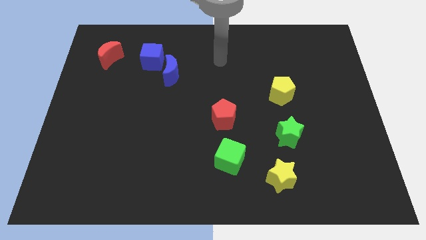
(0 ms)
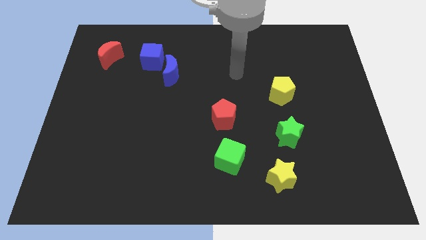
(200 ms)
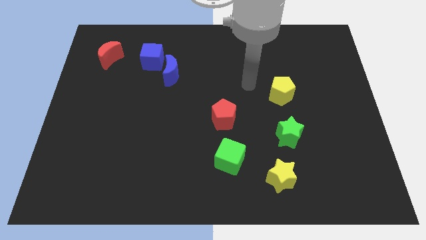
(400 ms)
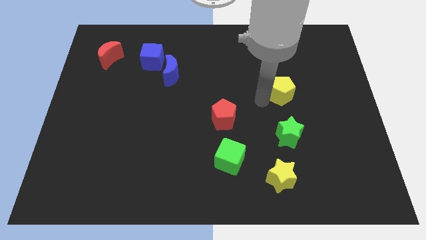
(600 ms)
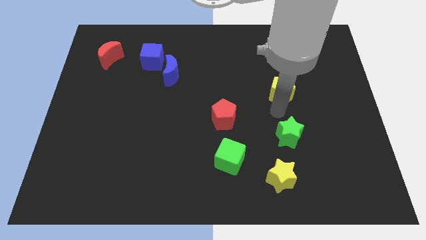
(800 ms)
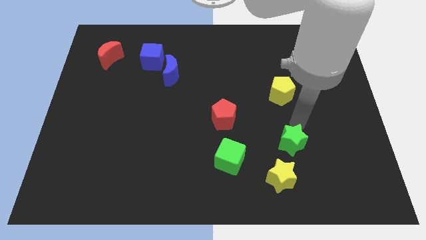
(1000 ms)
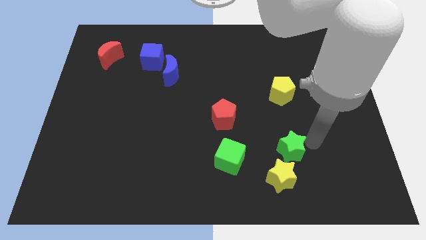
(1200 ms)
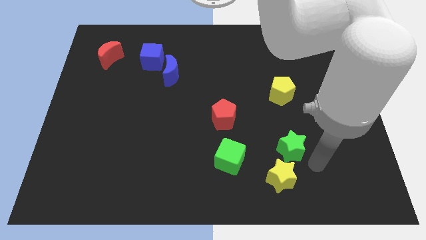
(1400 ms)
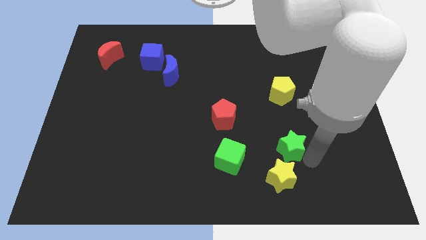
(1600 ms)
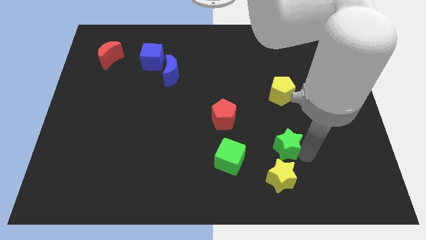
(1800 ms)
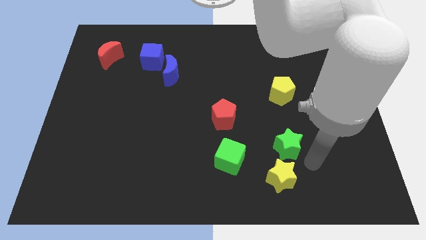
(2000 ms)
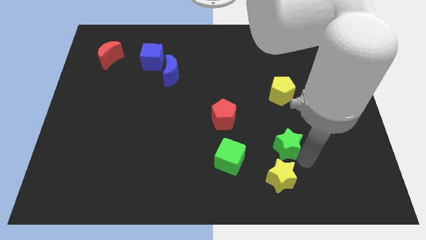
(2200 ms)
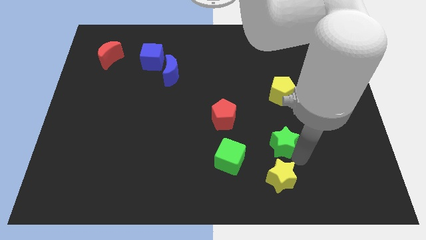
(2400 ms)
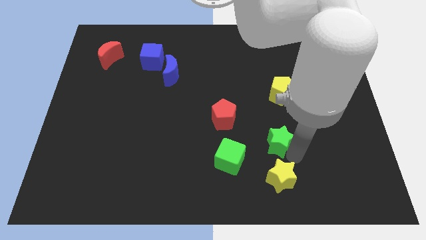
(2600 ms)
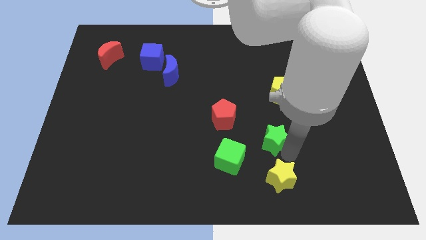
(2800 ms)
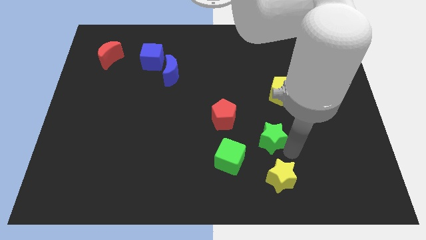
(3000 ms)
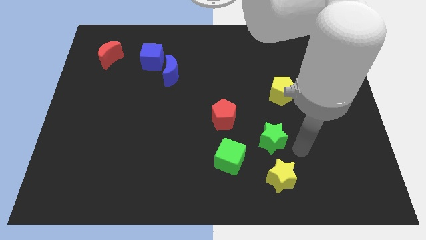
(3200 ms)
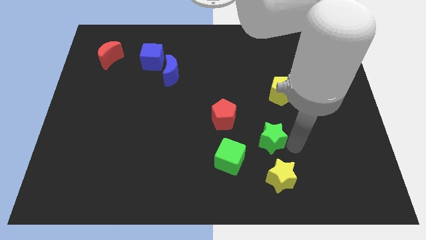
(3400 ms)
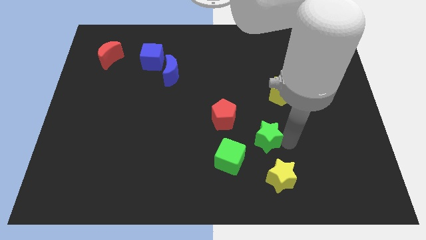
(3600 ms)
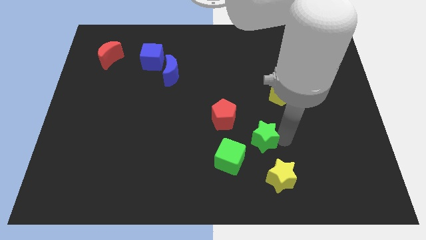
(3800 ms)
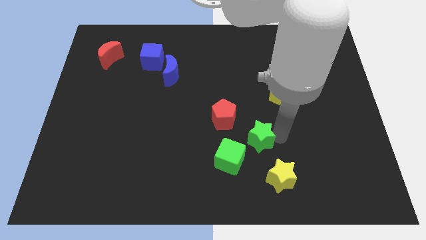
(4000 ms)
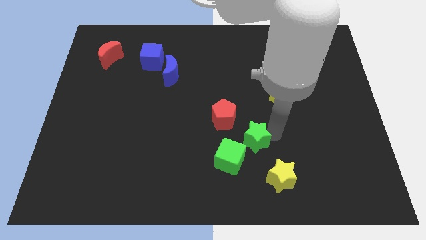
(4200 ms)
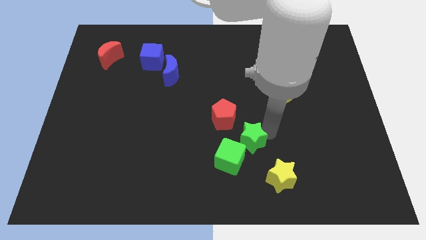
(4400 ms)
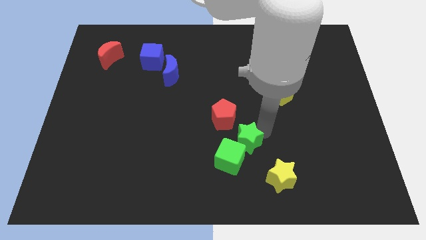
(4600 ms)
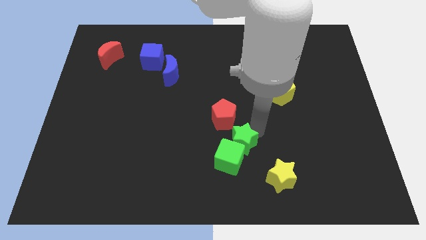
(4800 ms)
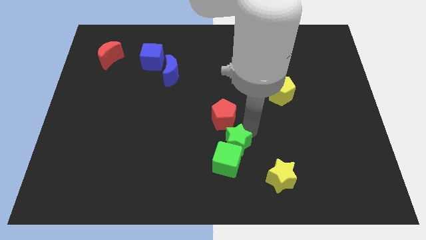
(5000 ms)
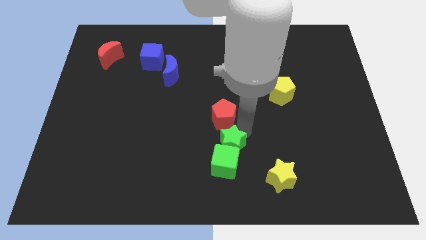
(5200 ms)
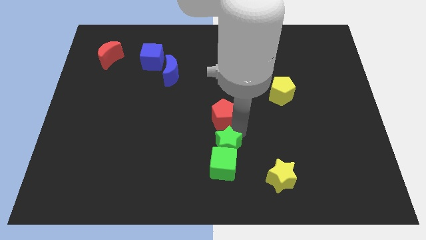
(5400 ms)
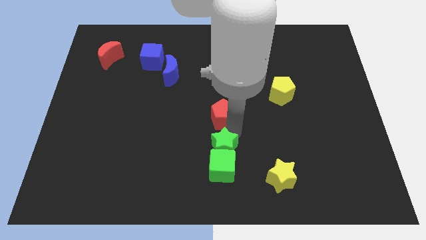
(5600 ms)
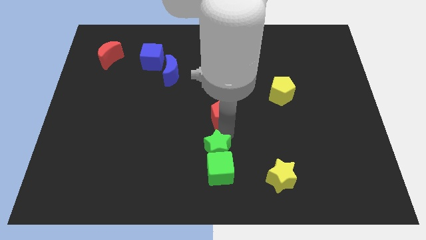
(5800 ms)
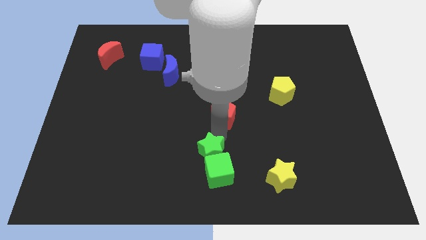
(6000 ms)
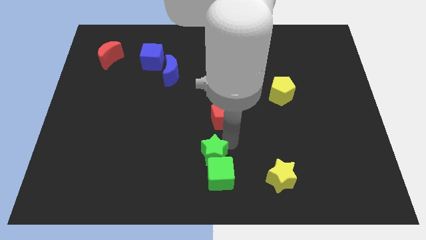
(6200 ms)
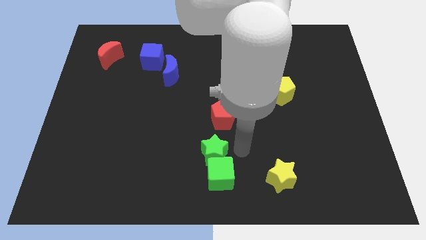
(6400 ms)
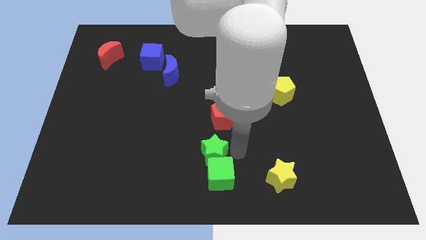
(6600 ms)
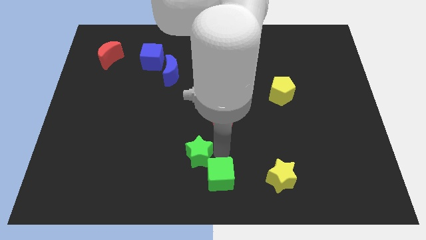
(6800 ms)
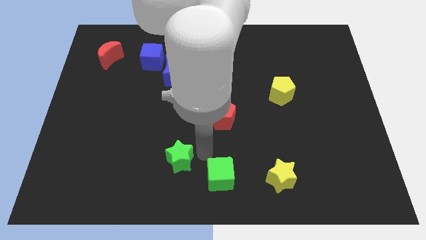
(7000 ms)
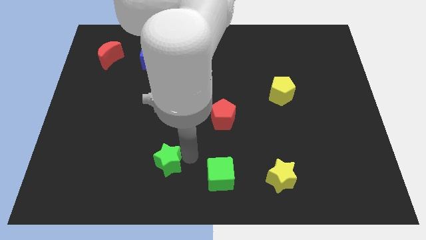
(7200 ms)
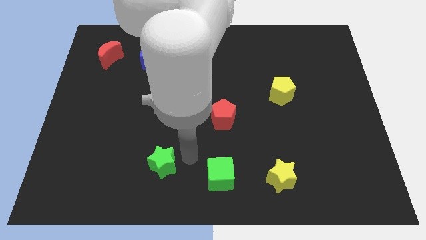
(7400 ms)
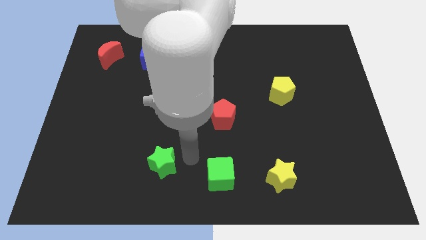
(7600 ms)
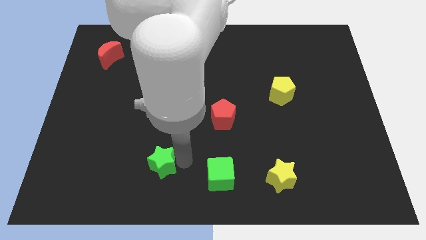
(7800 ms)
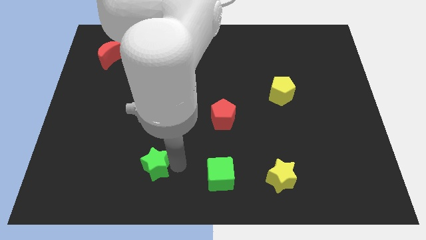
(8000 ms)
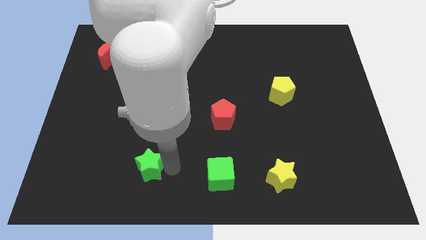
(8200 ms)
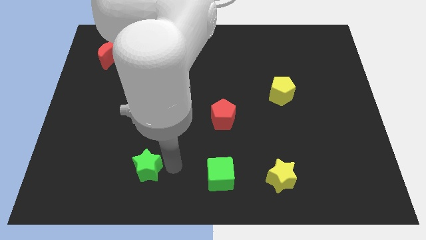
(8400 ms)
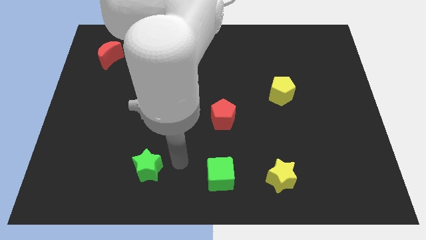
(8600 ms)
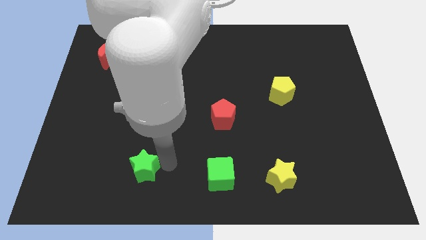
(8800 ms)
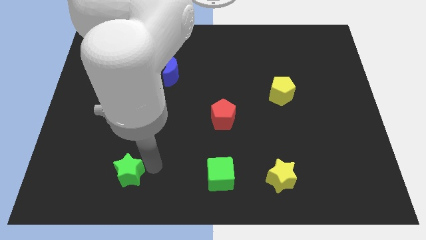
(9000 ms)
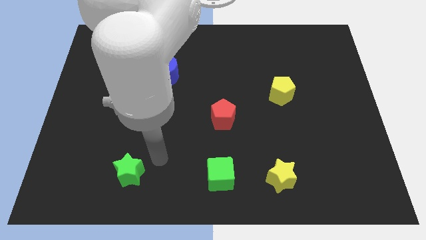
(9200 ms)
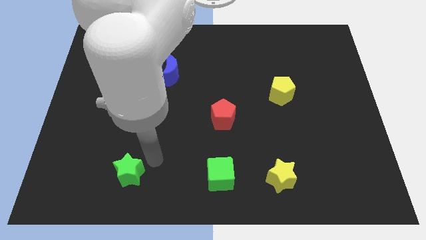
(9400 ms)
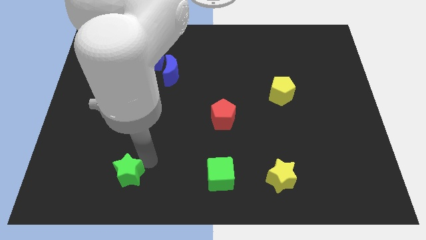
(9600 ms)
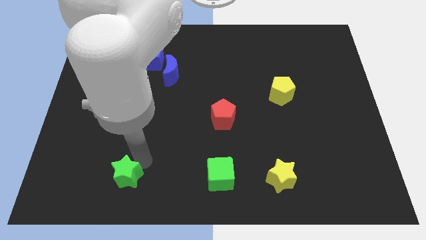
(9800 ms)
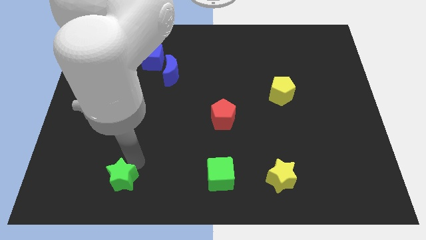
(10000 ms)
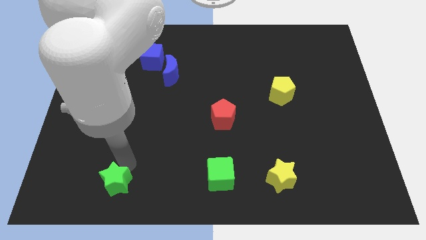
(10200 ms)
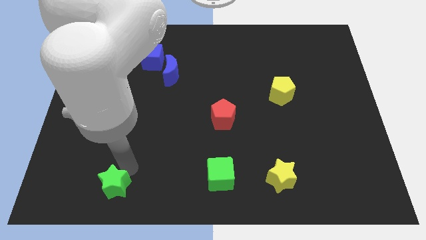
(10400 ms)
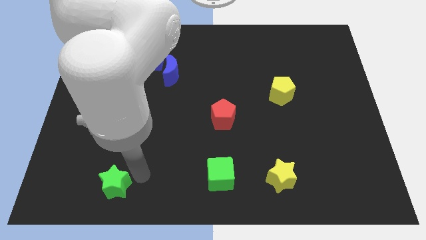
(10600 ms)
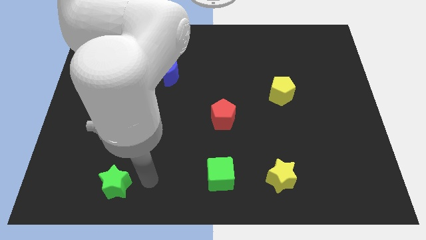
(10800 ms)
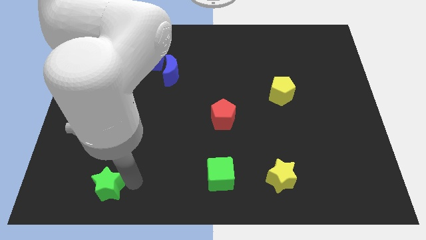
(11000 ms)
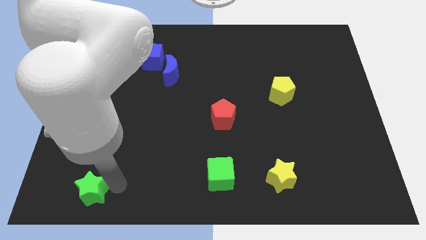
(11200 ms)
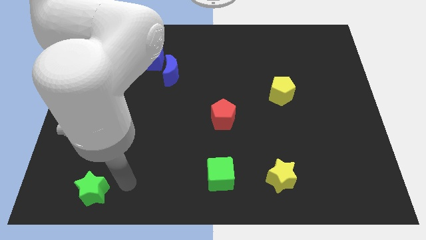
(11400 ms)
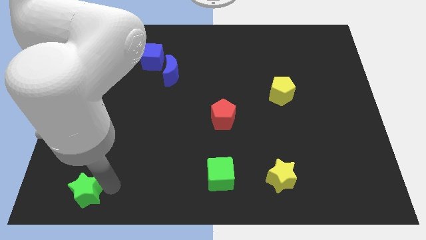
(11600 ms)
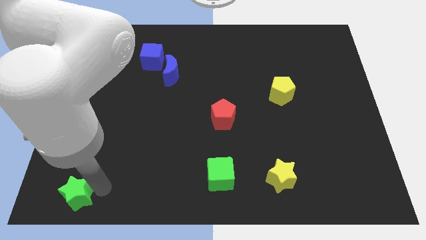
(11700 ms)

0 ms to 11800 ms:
slide the green star to the bottom left corner

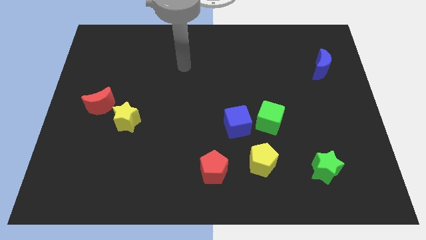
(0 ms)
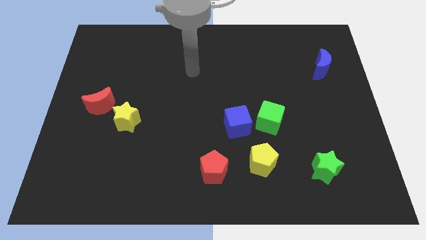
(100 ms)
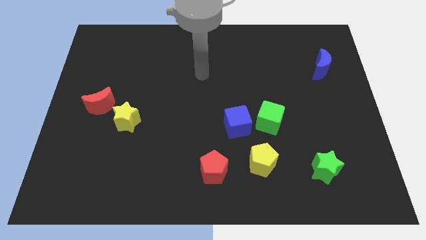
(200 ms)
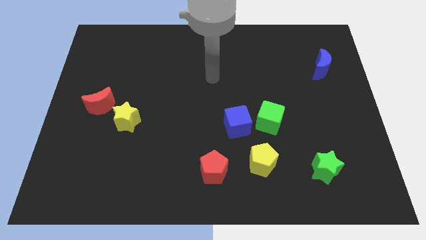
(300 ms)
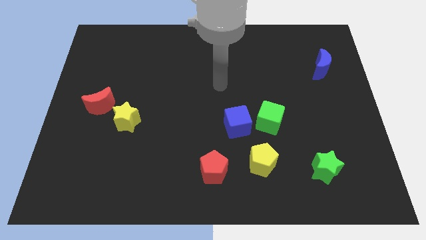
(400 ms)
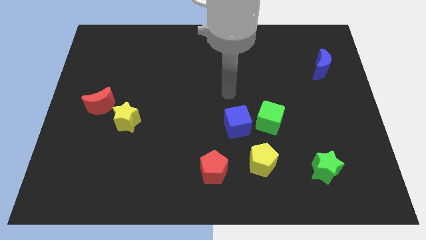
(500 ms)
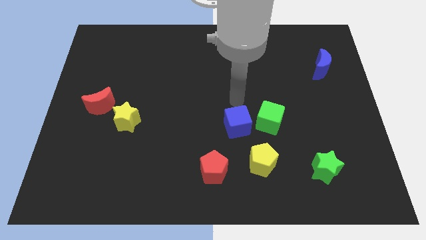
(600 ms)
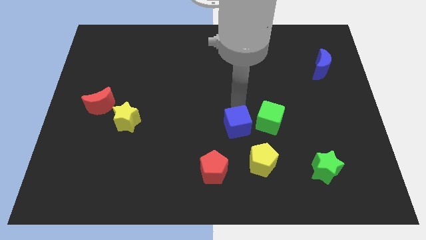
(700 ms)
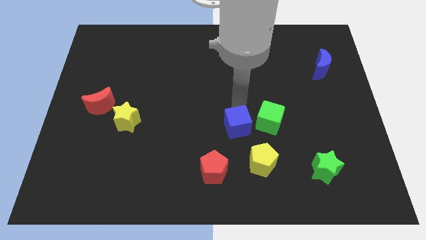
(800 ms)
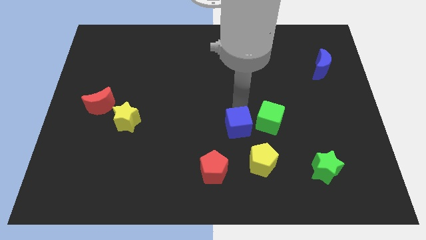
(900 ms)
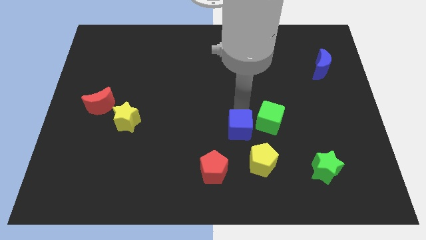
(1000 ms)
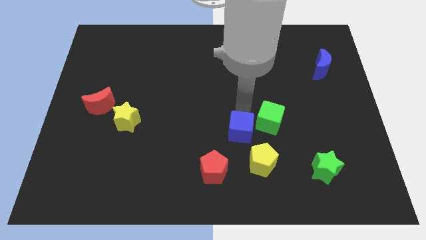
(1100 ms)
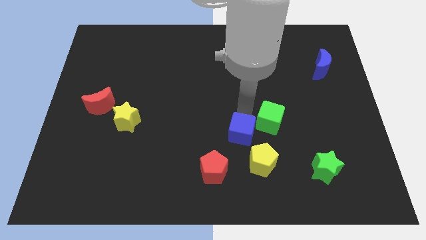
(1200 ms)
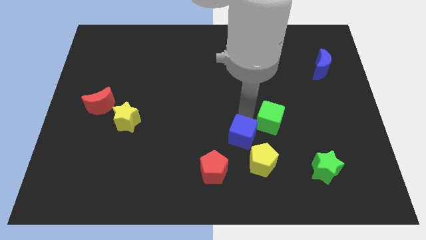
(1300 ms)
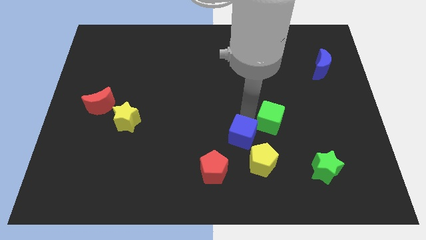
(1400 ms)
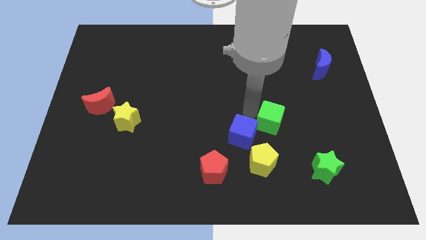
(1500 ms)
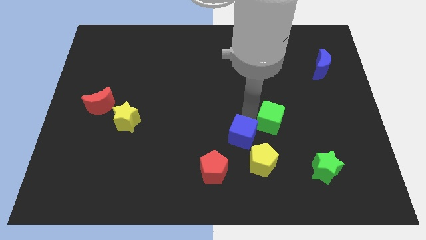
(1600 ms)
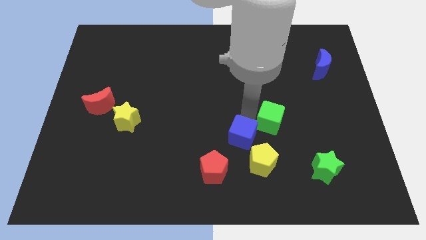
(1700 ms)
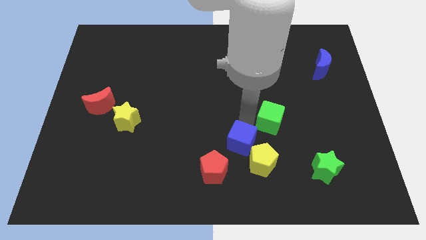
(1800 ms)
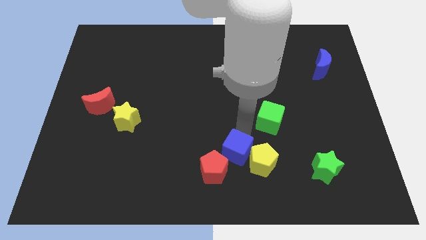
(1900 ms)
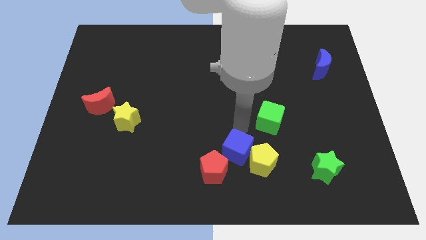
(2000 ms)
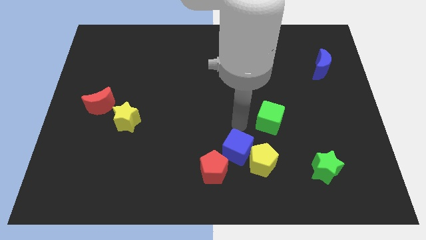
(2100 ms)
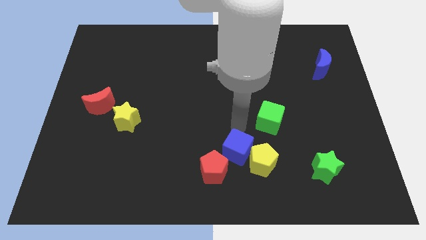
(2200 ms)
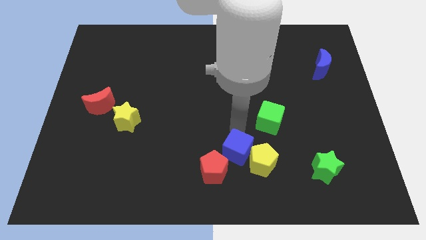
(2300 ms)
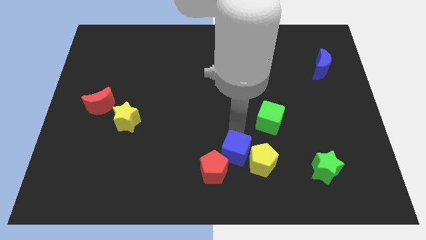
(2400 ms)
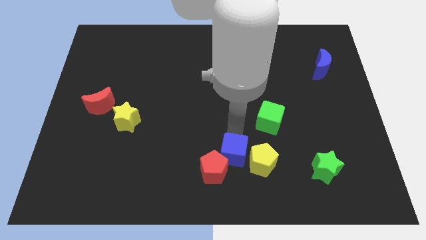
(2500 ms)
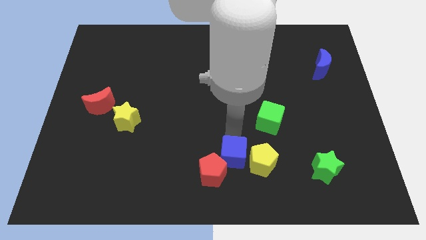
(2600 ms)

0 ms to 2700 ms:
push the blue cube to the bottom
